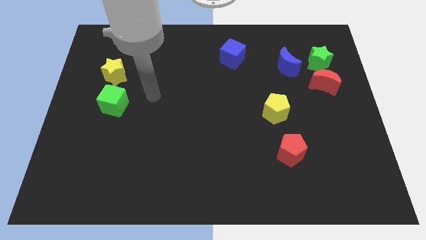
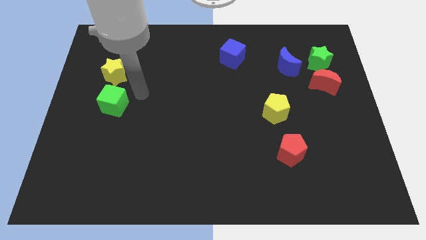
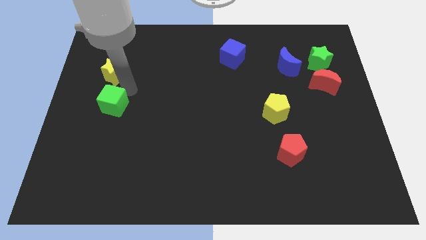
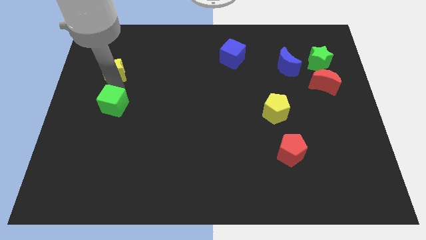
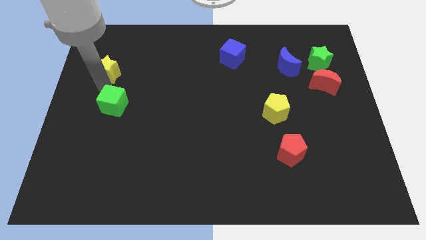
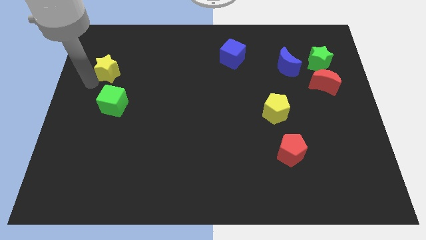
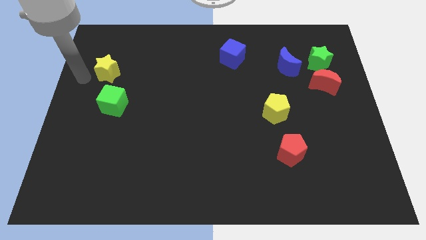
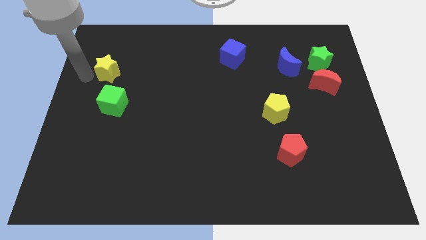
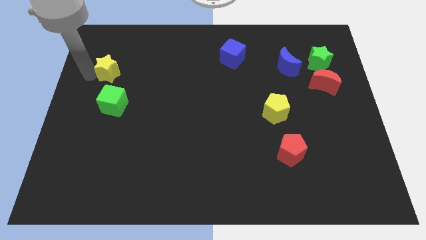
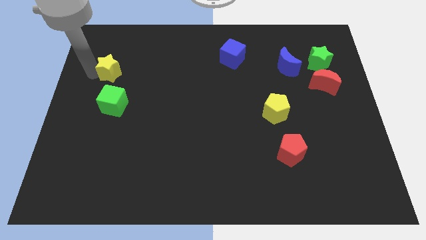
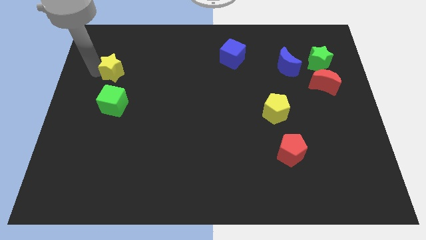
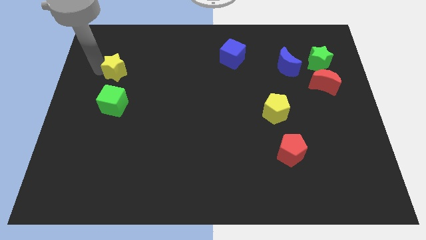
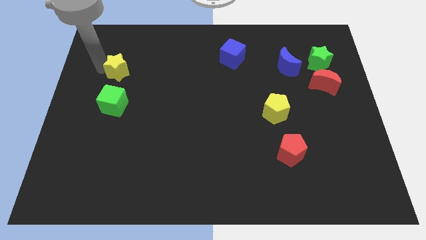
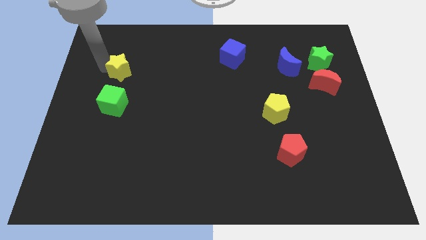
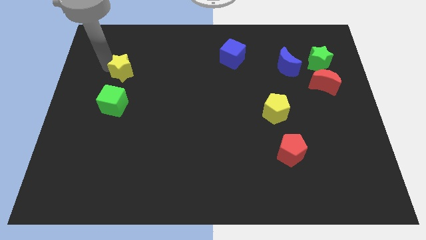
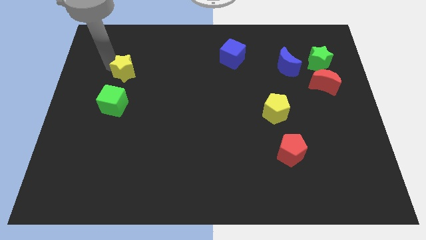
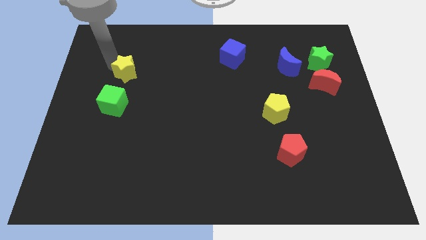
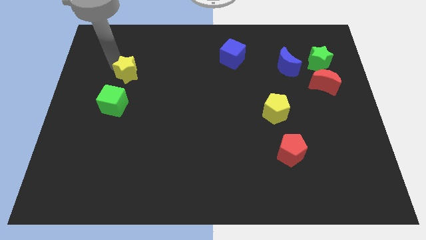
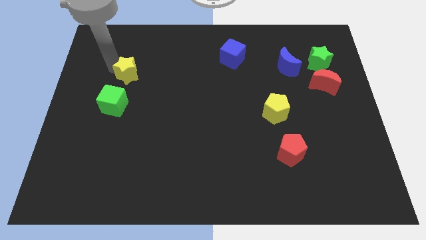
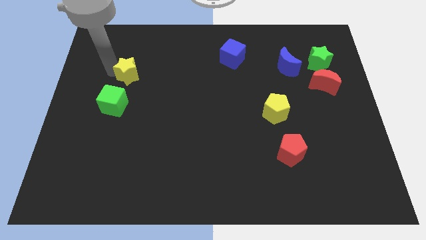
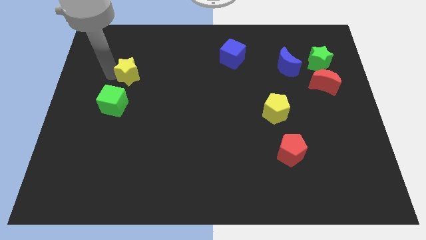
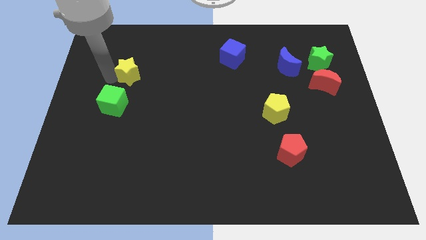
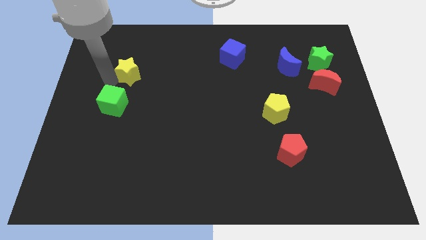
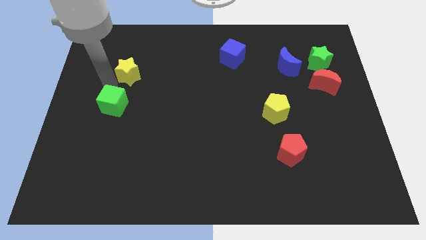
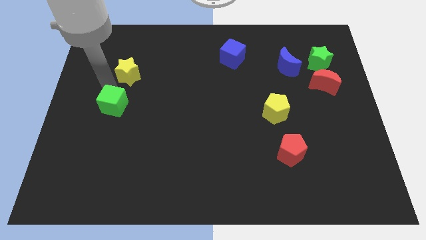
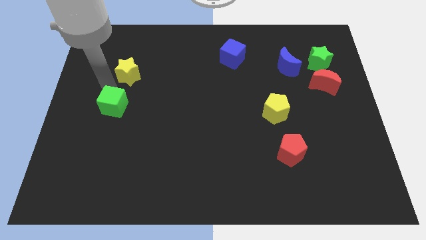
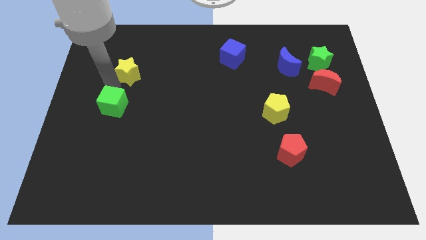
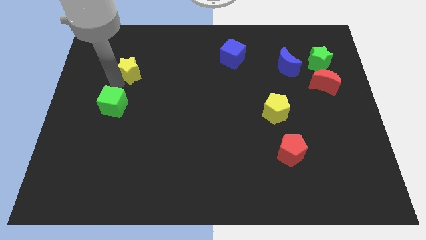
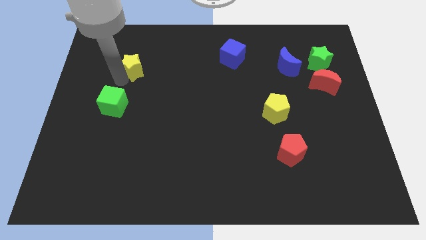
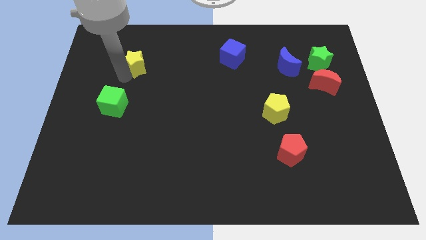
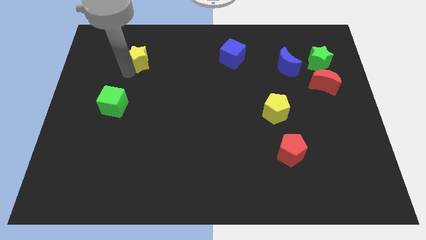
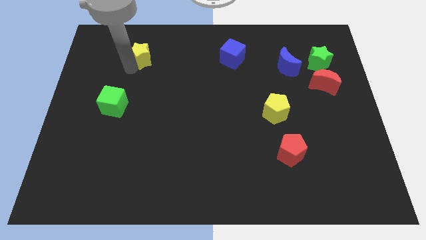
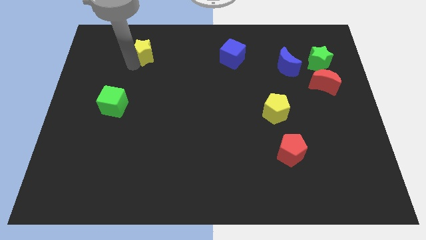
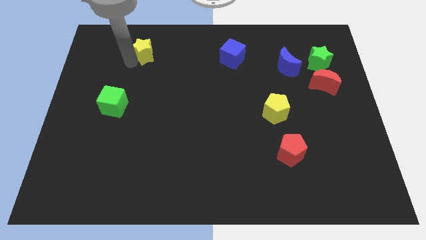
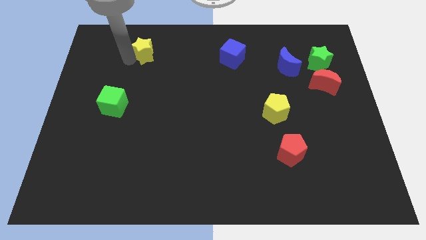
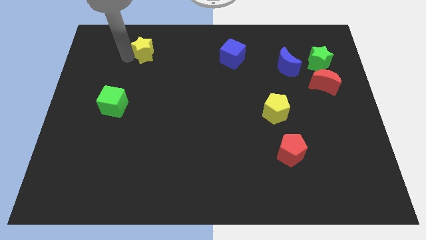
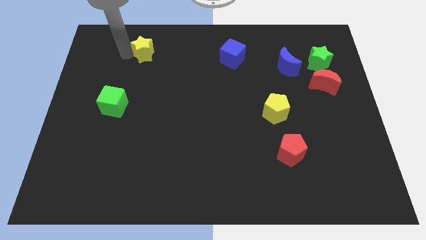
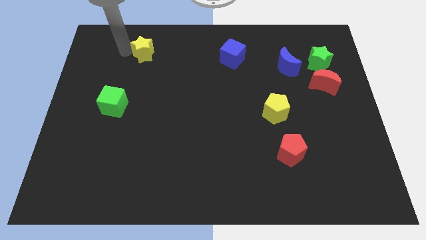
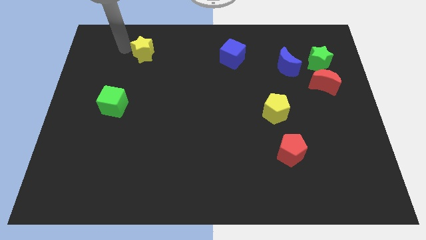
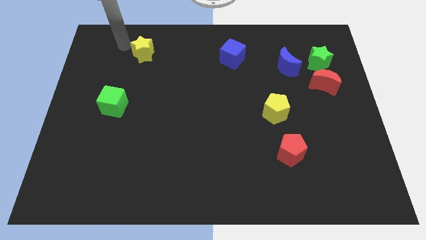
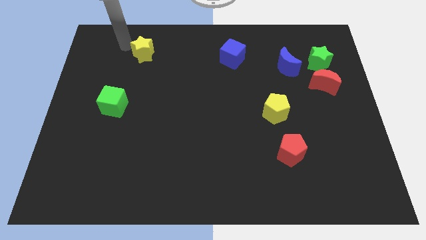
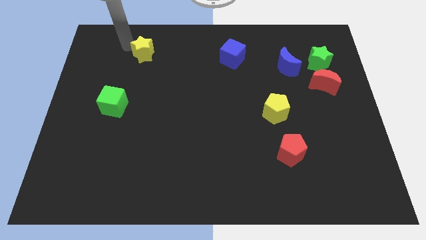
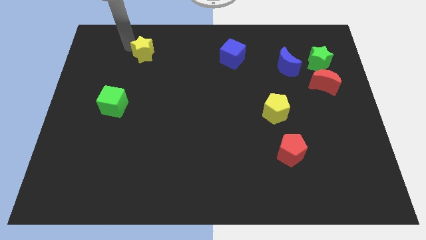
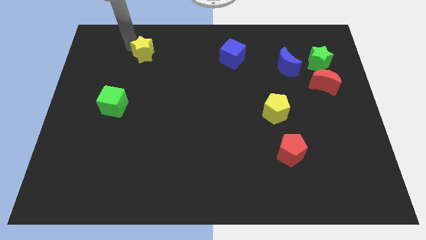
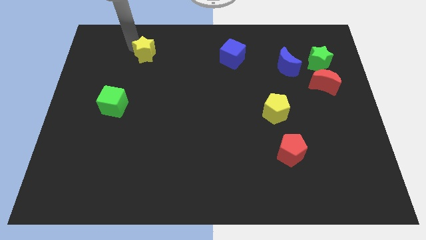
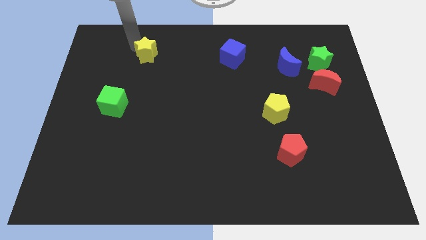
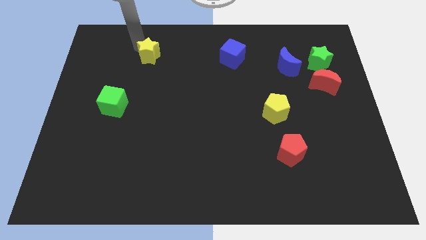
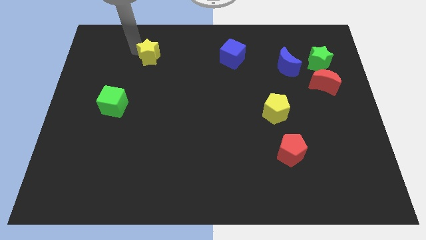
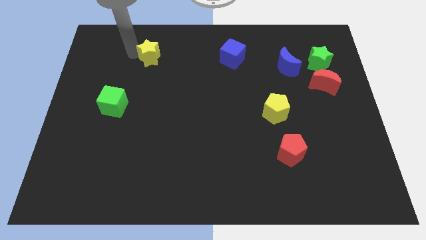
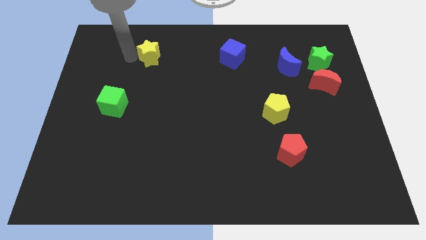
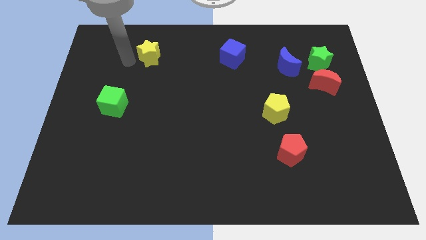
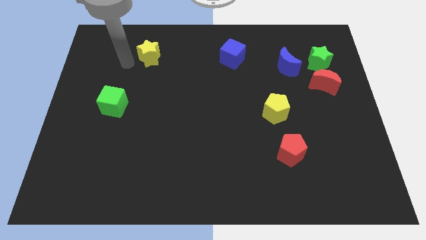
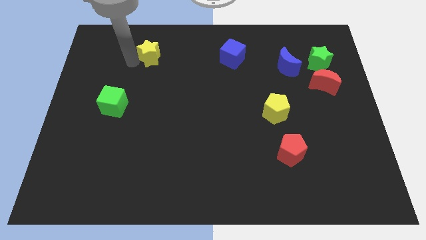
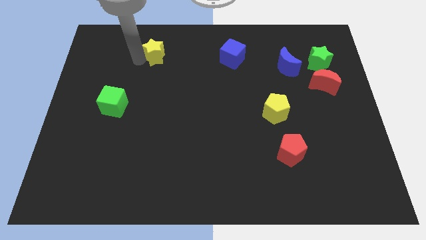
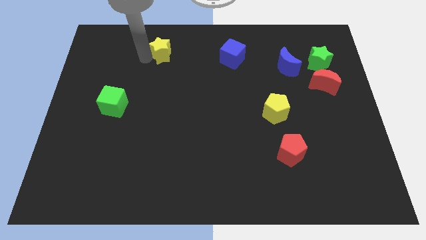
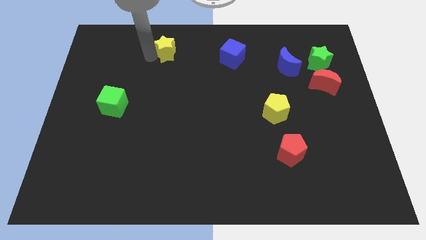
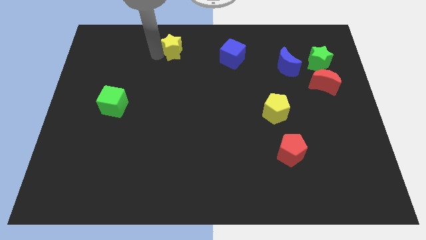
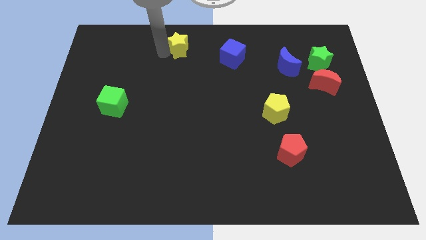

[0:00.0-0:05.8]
move the yellow star to the towards your base
